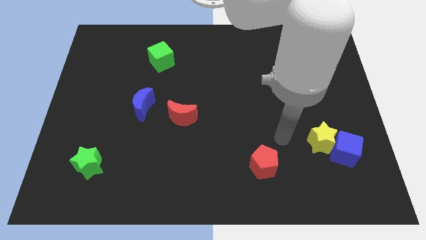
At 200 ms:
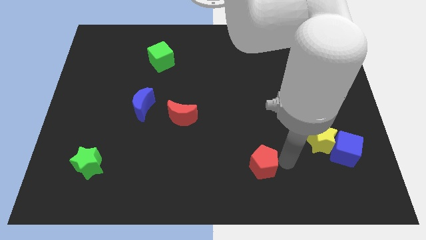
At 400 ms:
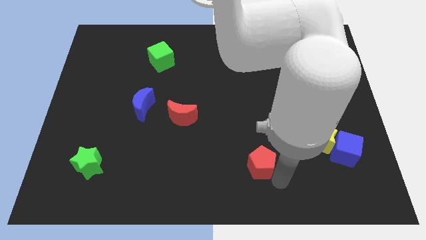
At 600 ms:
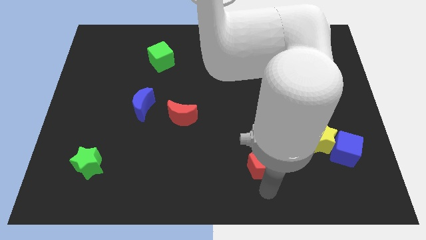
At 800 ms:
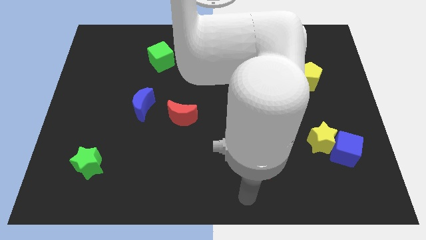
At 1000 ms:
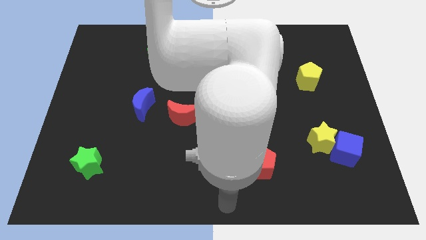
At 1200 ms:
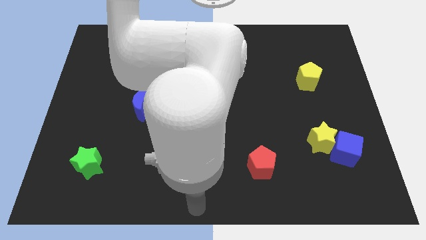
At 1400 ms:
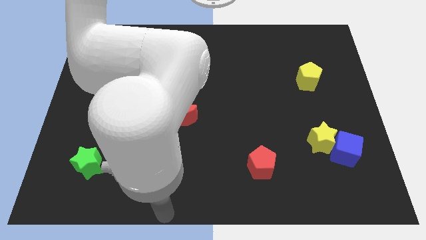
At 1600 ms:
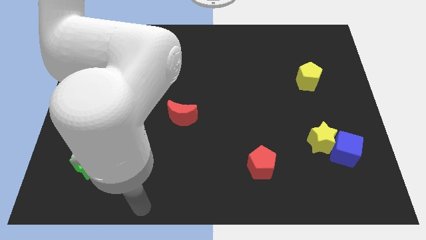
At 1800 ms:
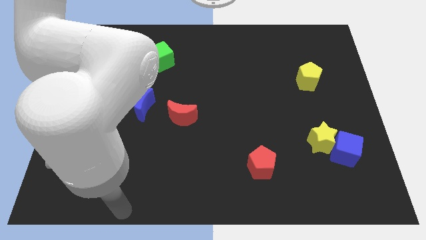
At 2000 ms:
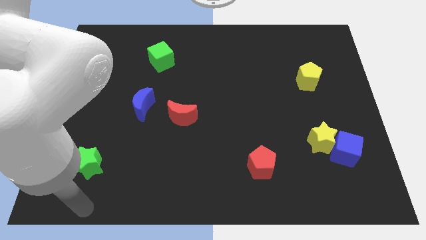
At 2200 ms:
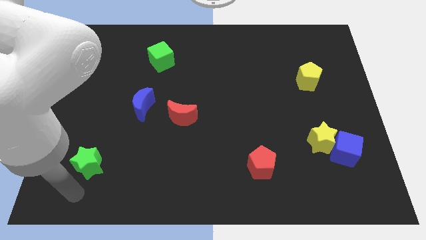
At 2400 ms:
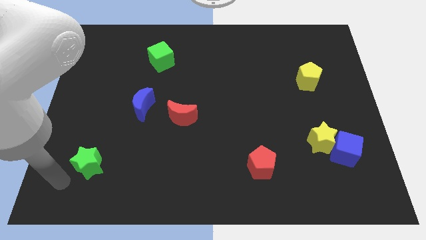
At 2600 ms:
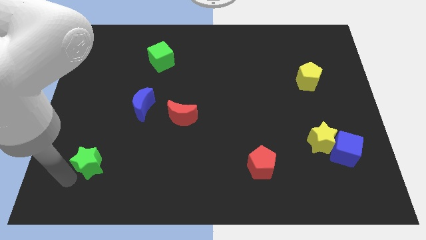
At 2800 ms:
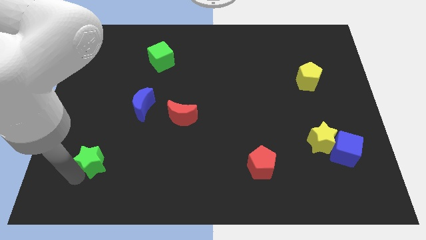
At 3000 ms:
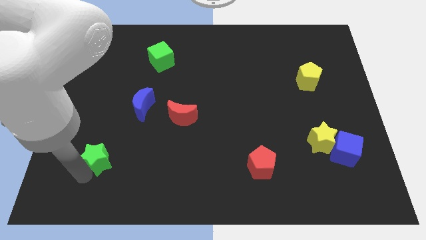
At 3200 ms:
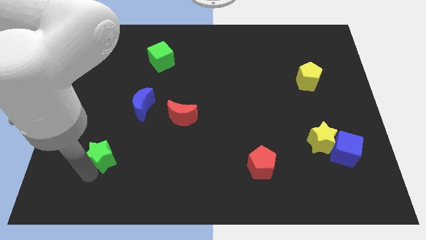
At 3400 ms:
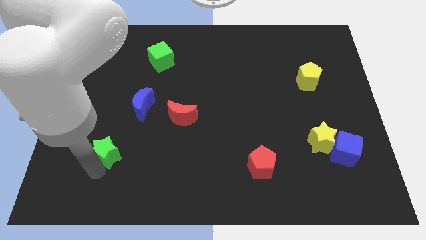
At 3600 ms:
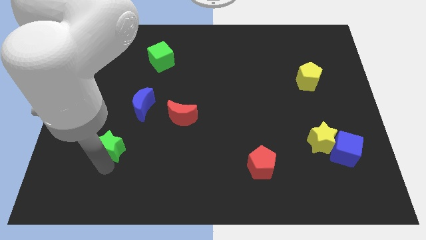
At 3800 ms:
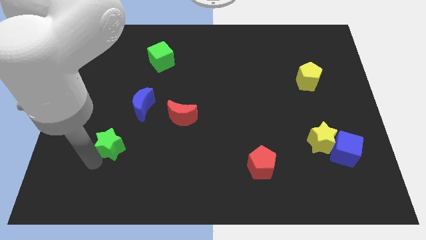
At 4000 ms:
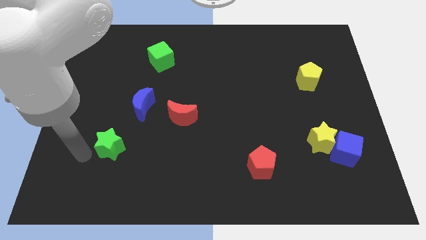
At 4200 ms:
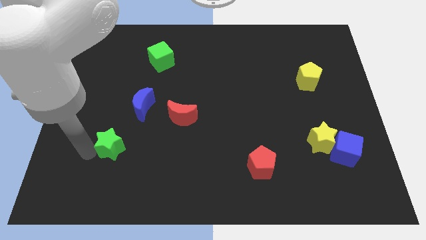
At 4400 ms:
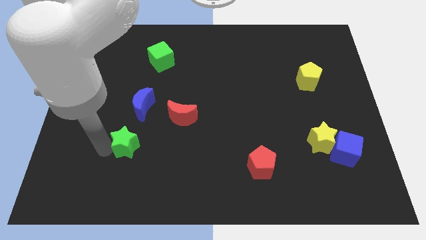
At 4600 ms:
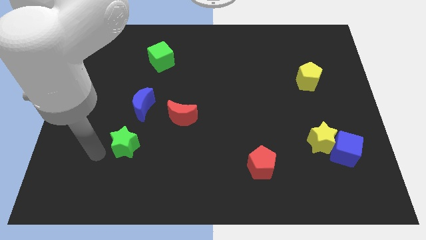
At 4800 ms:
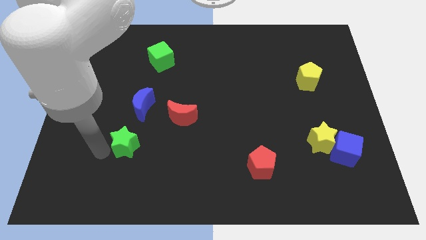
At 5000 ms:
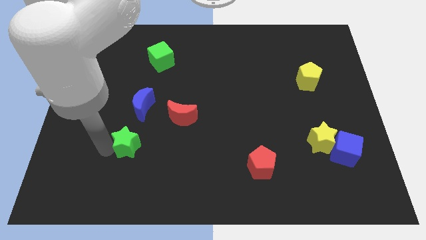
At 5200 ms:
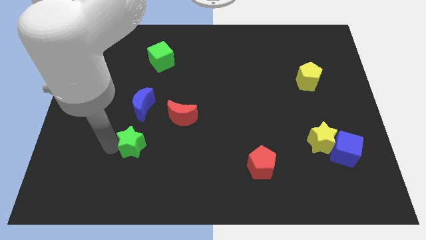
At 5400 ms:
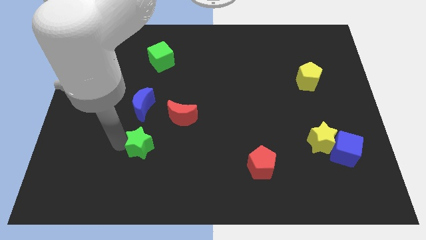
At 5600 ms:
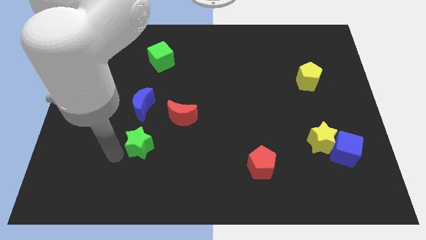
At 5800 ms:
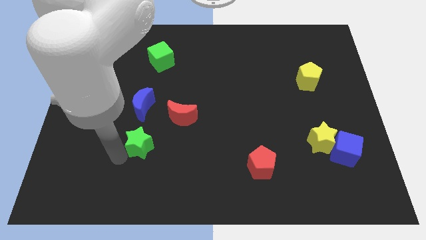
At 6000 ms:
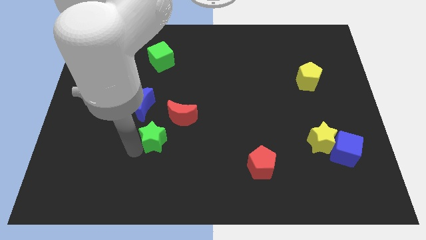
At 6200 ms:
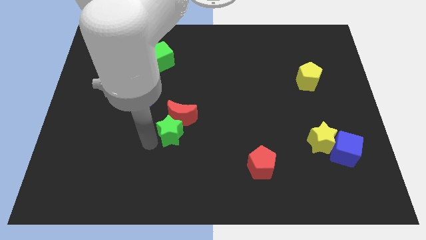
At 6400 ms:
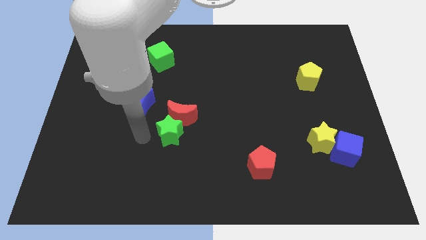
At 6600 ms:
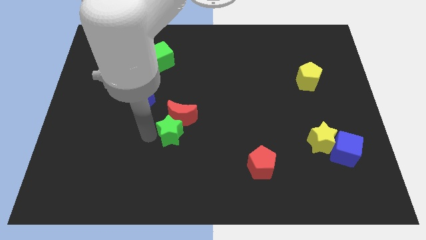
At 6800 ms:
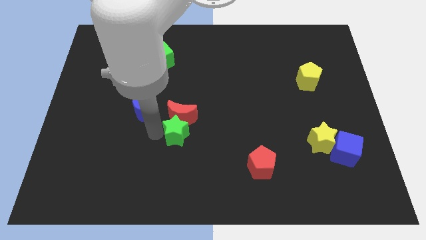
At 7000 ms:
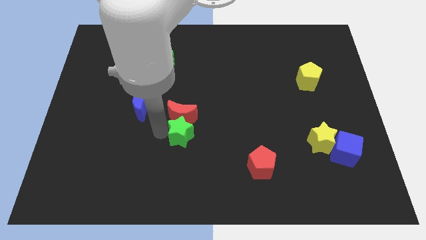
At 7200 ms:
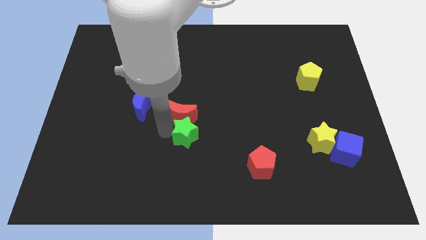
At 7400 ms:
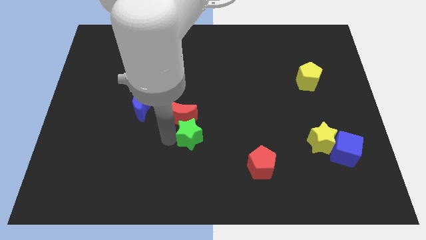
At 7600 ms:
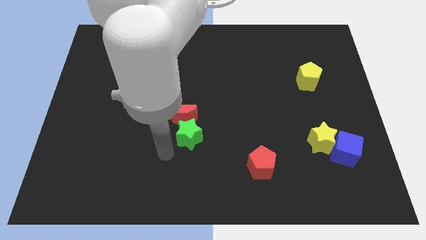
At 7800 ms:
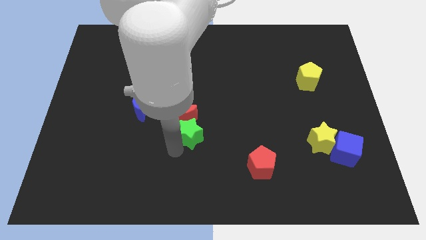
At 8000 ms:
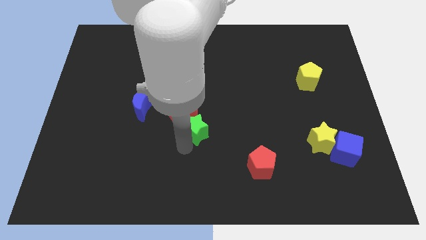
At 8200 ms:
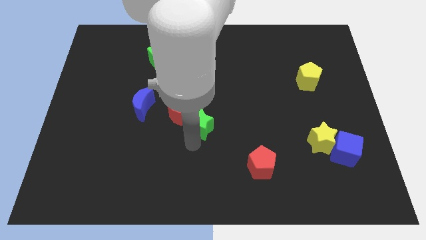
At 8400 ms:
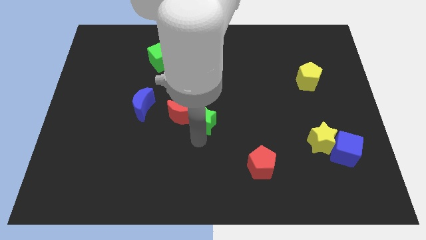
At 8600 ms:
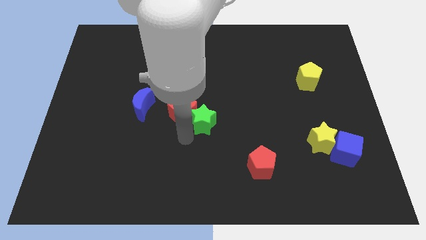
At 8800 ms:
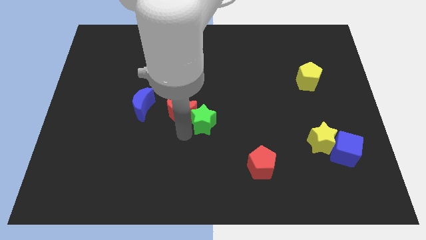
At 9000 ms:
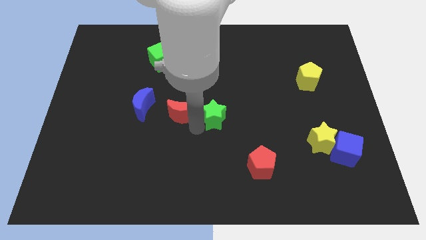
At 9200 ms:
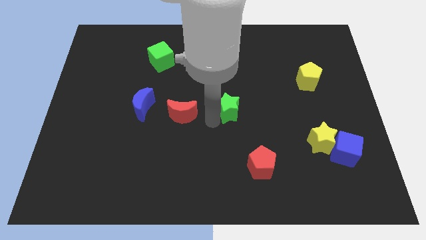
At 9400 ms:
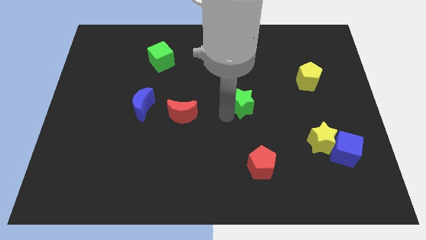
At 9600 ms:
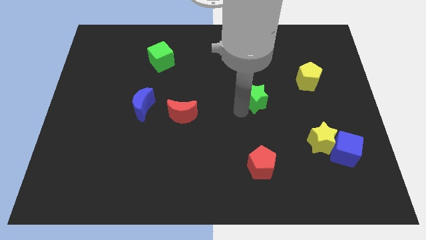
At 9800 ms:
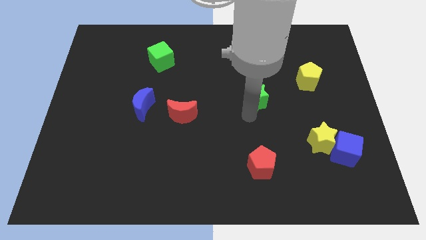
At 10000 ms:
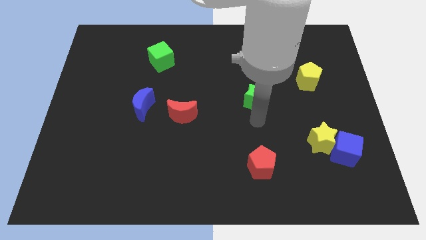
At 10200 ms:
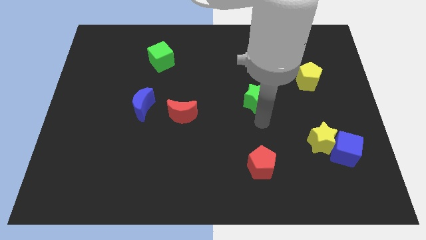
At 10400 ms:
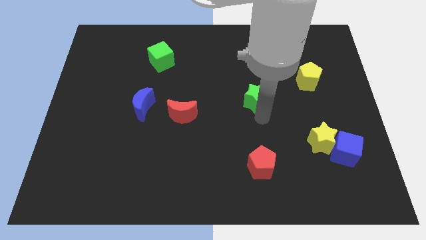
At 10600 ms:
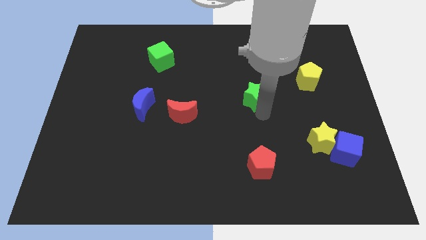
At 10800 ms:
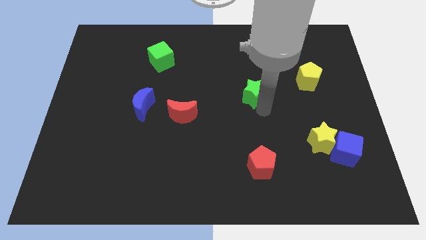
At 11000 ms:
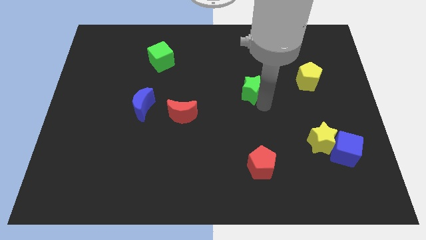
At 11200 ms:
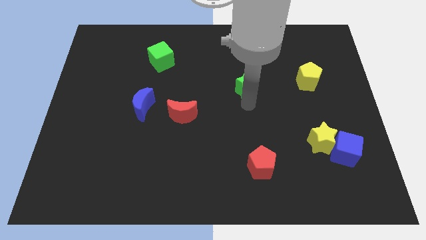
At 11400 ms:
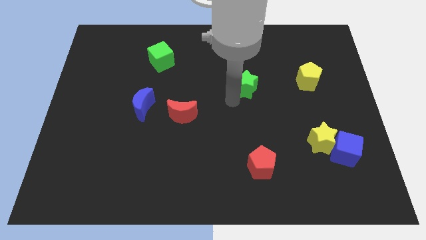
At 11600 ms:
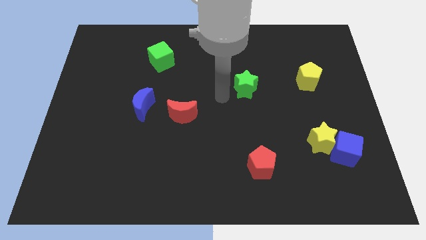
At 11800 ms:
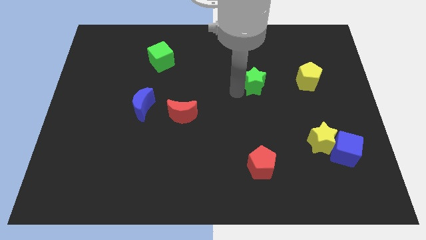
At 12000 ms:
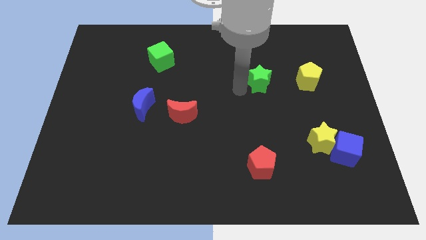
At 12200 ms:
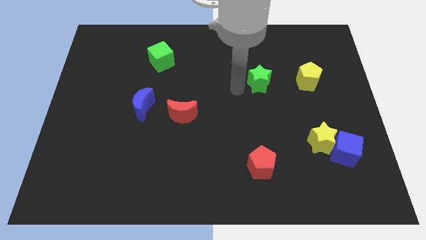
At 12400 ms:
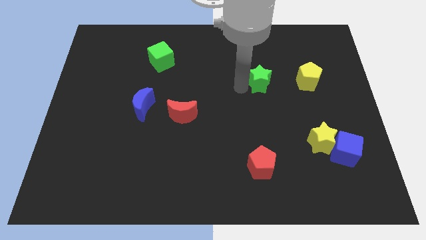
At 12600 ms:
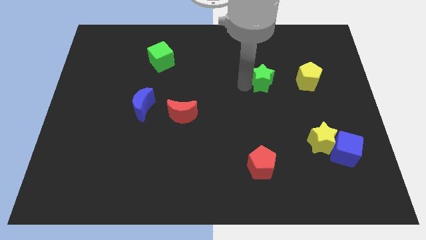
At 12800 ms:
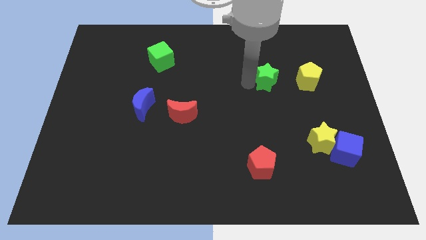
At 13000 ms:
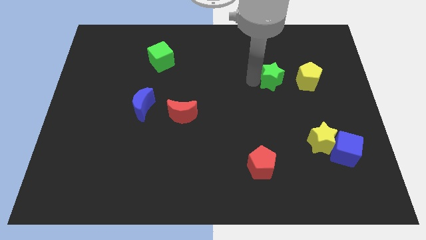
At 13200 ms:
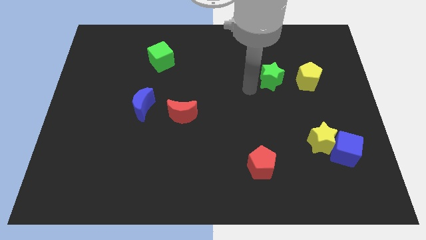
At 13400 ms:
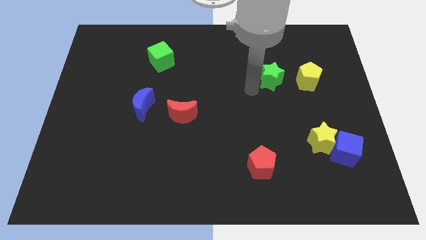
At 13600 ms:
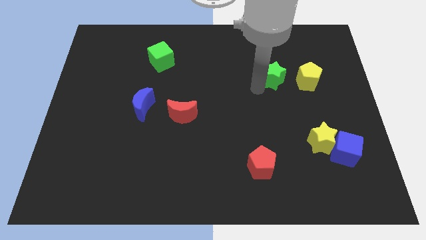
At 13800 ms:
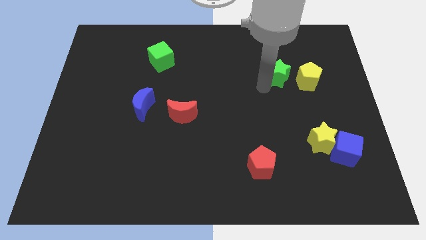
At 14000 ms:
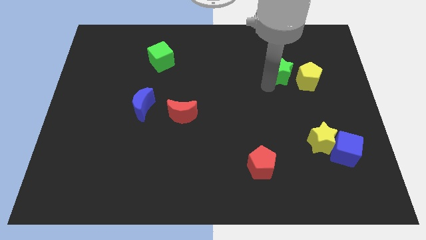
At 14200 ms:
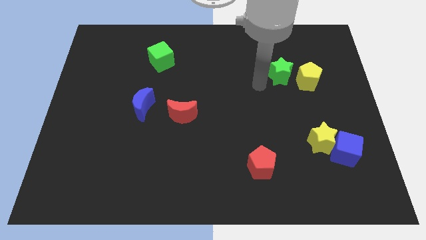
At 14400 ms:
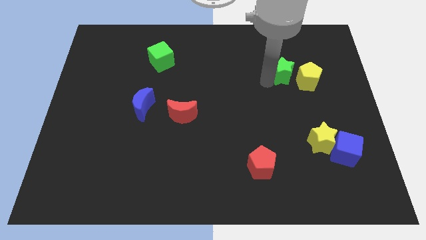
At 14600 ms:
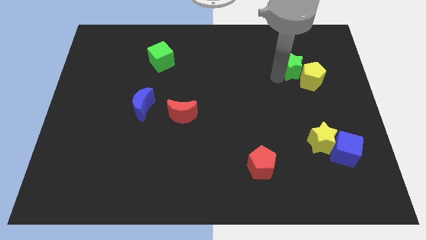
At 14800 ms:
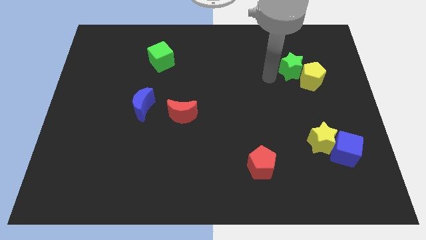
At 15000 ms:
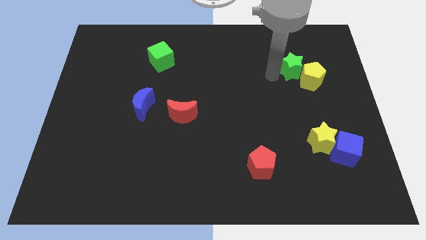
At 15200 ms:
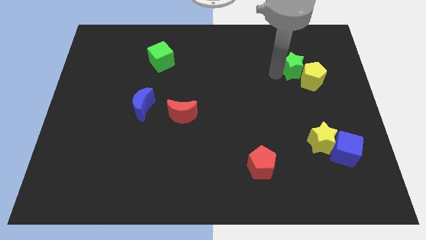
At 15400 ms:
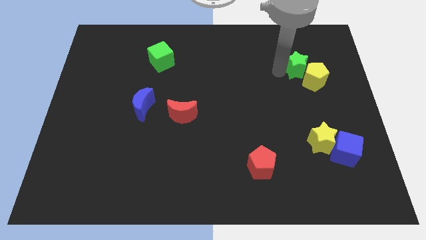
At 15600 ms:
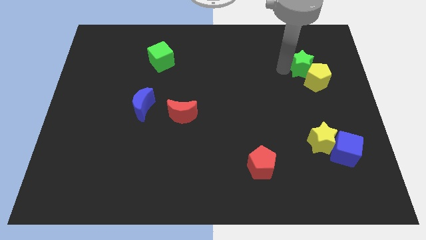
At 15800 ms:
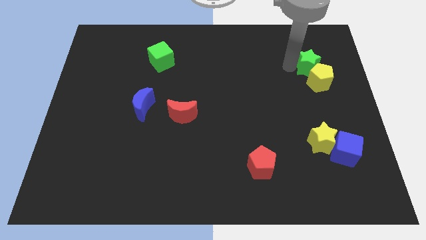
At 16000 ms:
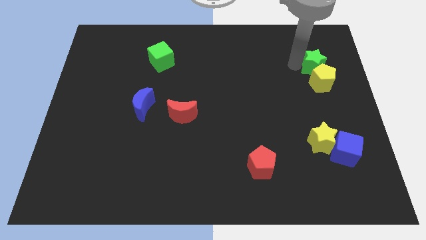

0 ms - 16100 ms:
push the green star to the top right side of the yellow pentagon
